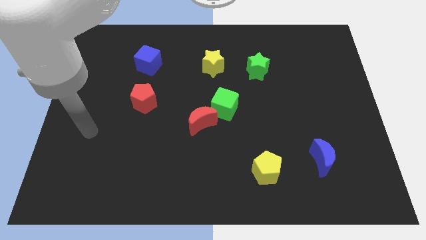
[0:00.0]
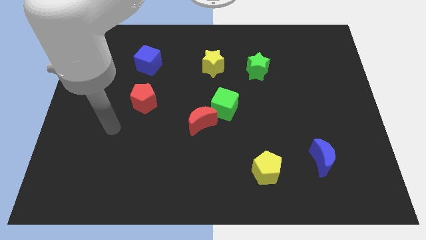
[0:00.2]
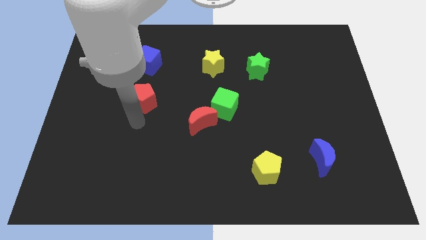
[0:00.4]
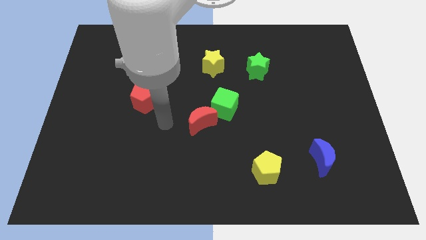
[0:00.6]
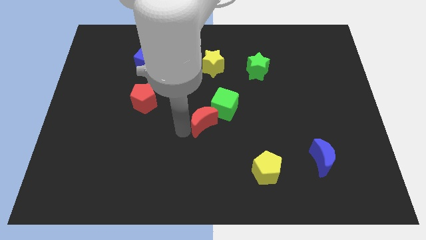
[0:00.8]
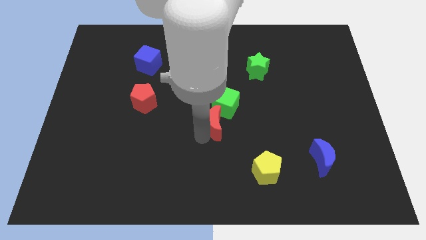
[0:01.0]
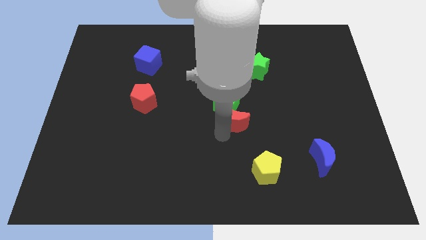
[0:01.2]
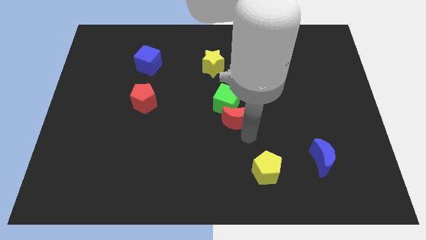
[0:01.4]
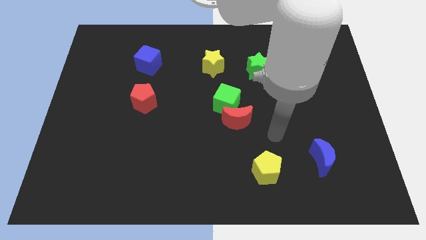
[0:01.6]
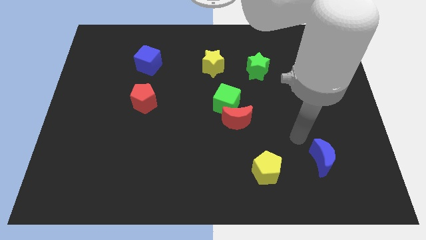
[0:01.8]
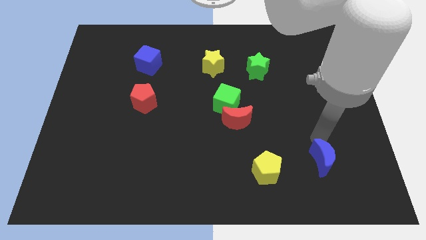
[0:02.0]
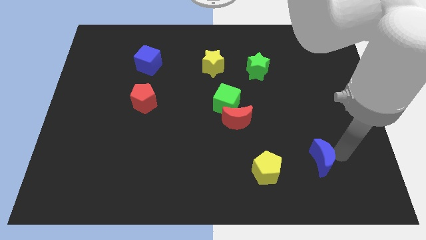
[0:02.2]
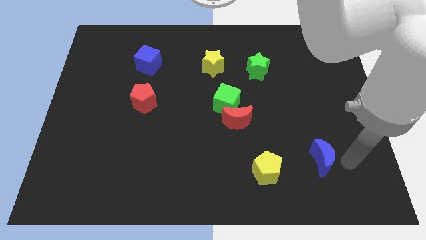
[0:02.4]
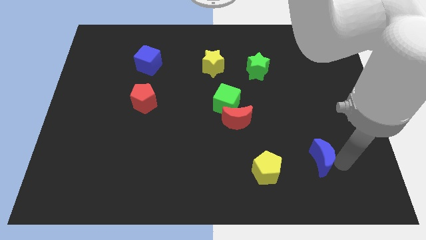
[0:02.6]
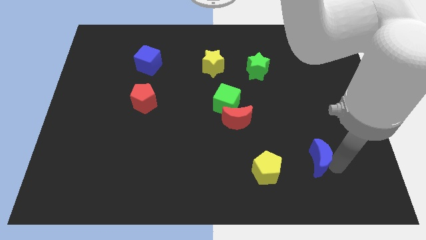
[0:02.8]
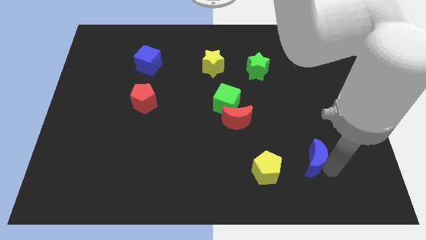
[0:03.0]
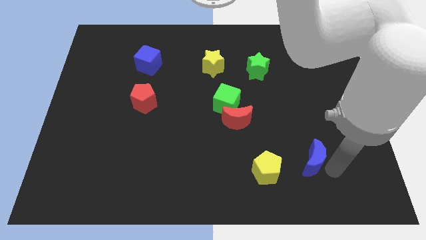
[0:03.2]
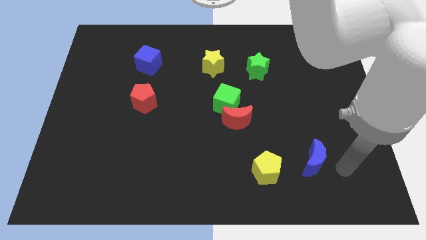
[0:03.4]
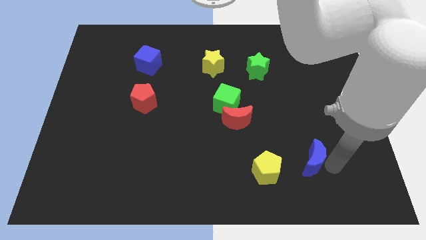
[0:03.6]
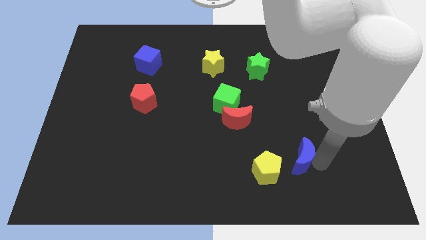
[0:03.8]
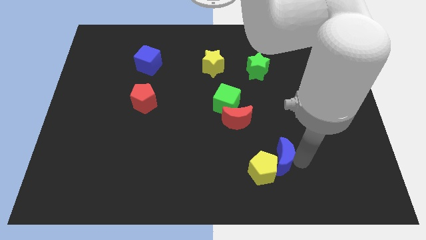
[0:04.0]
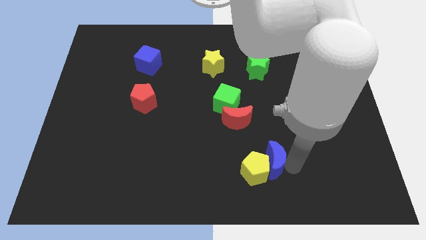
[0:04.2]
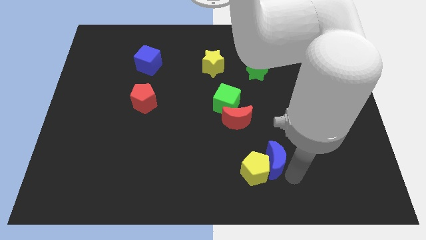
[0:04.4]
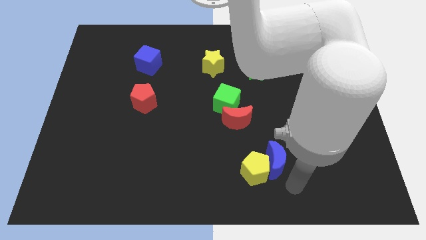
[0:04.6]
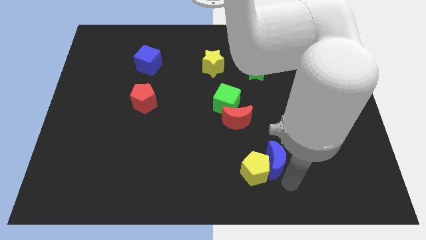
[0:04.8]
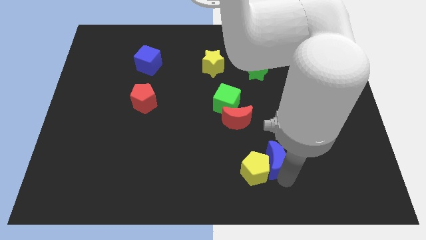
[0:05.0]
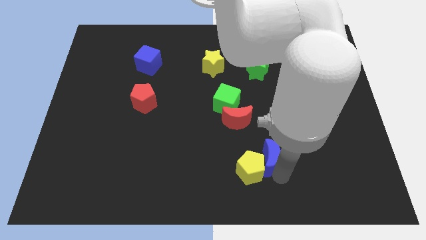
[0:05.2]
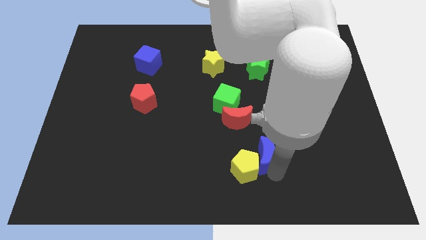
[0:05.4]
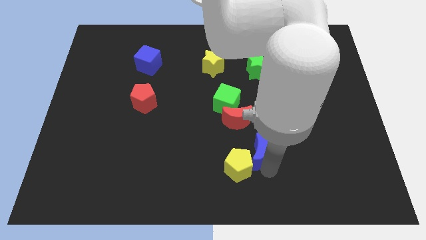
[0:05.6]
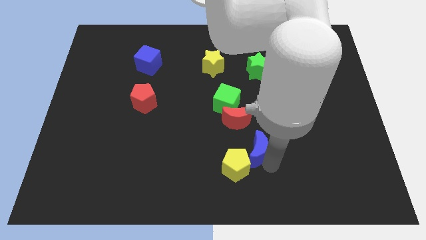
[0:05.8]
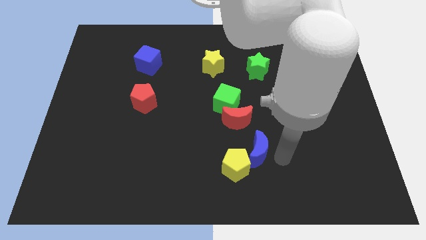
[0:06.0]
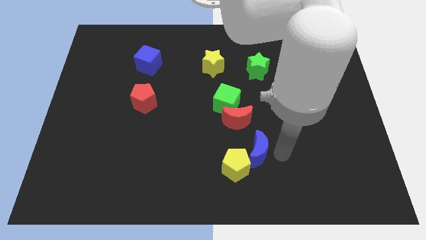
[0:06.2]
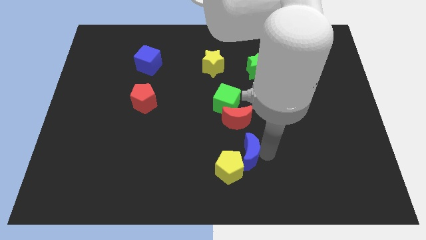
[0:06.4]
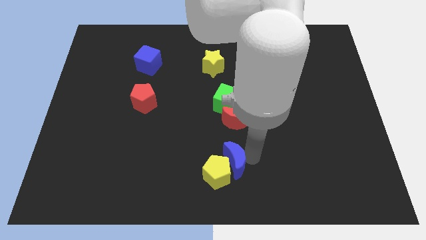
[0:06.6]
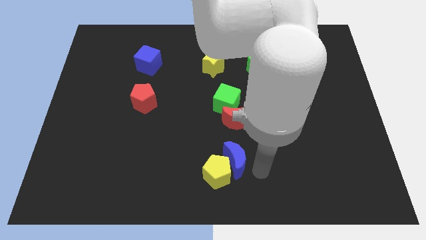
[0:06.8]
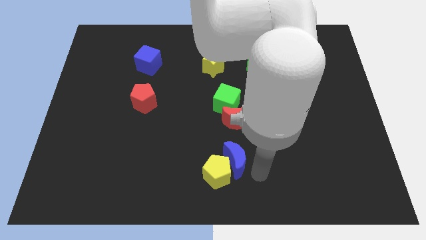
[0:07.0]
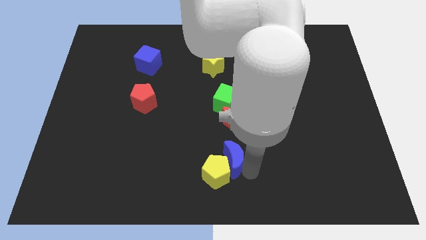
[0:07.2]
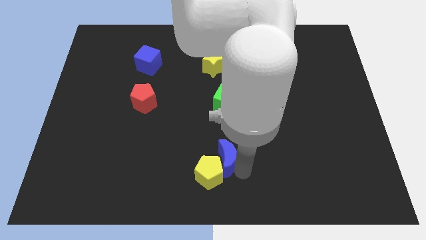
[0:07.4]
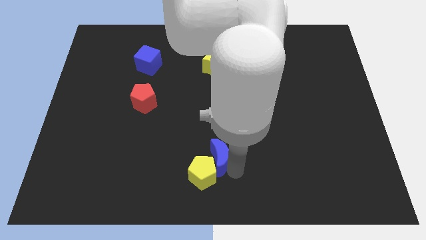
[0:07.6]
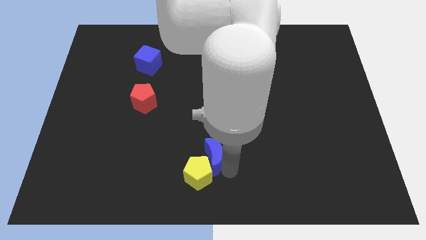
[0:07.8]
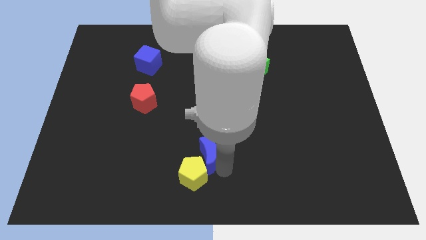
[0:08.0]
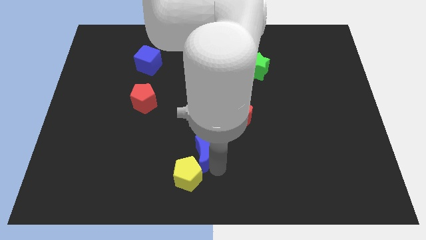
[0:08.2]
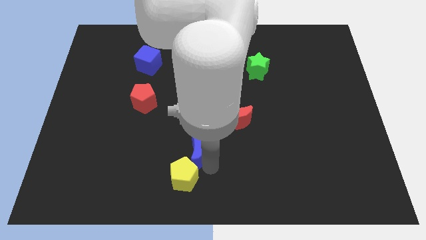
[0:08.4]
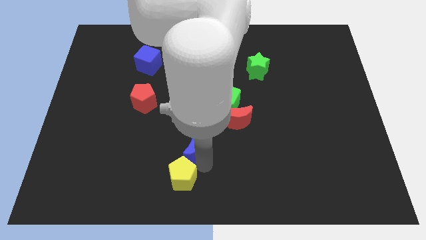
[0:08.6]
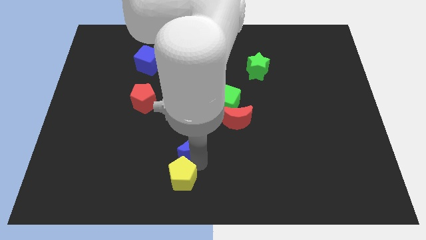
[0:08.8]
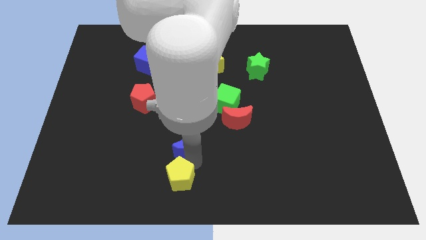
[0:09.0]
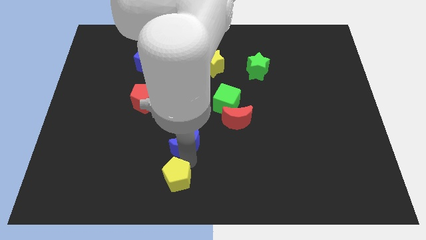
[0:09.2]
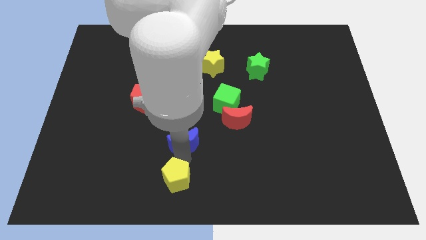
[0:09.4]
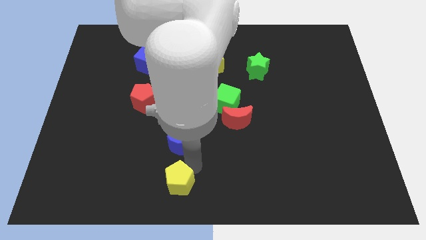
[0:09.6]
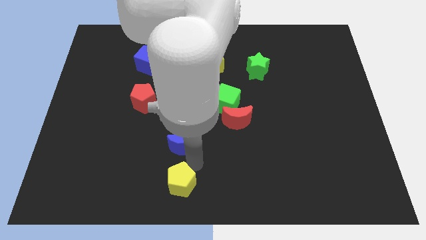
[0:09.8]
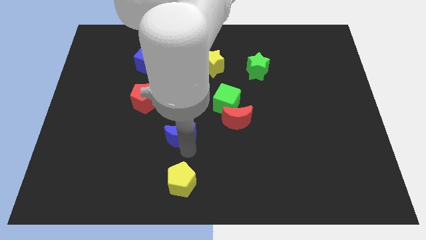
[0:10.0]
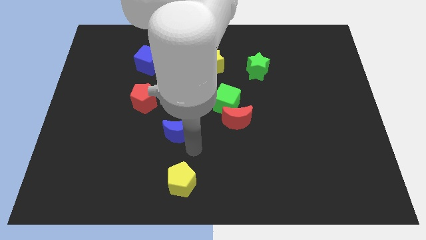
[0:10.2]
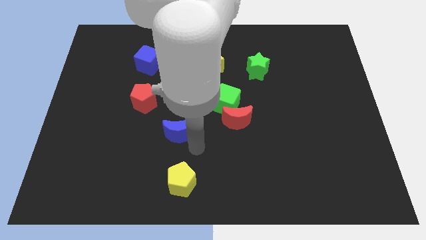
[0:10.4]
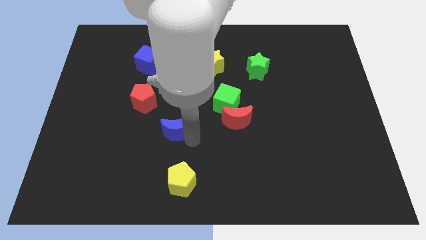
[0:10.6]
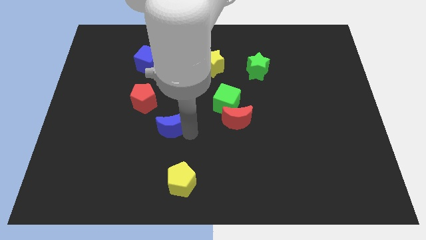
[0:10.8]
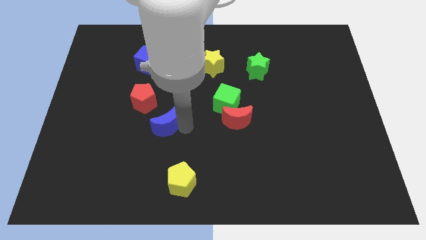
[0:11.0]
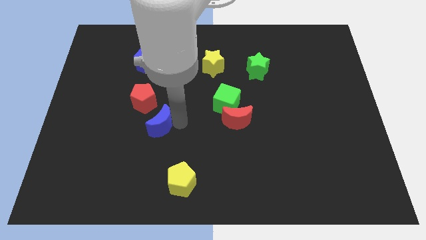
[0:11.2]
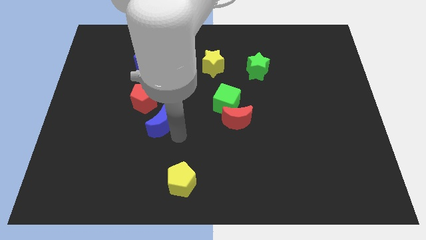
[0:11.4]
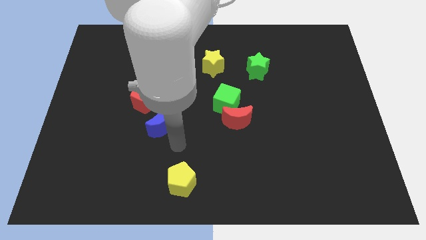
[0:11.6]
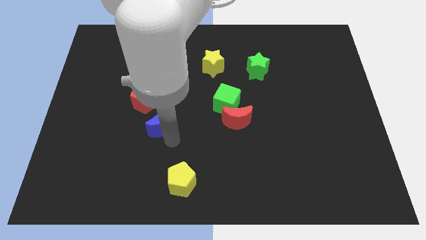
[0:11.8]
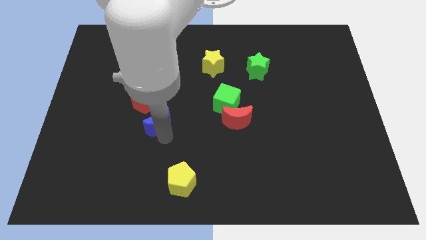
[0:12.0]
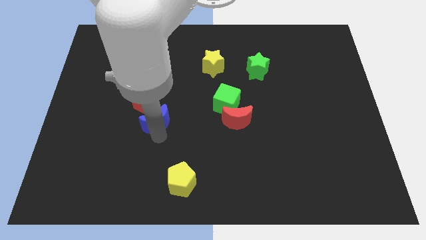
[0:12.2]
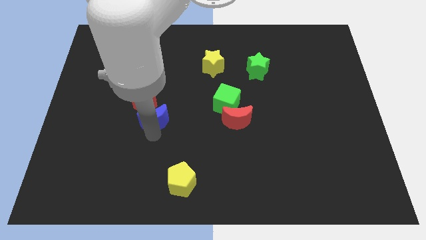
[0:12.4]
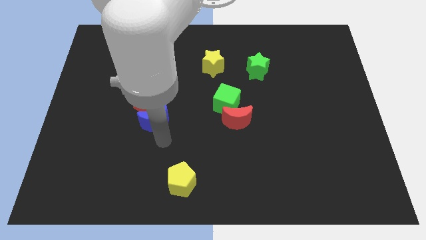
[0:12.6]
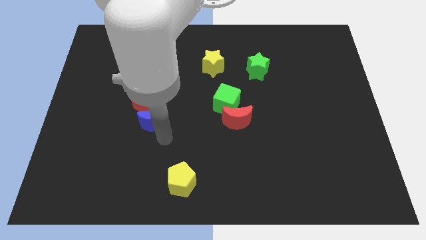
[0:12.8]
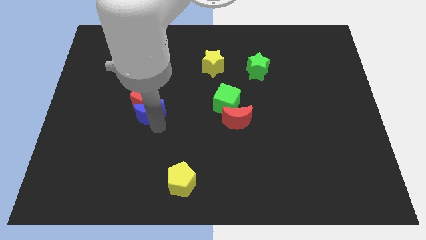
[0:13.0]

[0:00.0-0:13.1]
slide the blue moon next to the red pentagon
